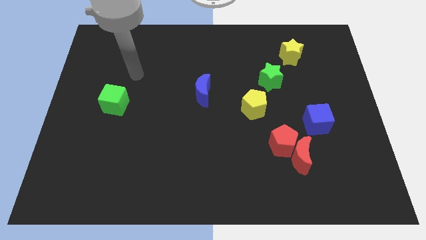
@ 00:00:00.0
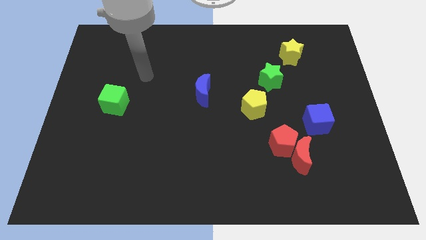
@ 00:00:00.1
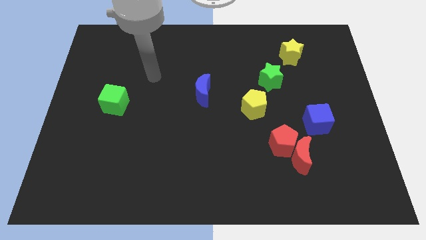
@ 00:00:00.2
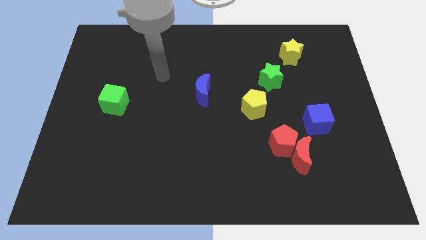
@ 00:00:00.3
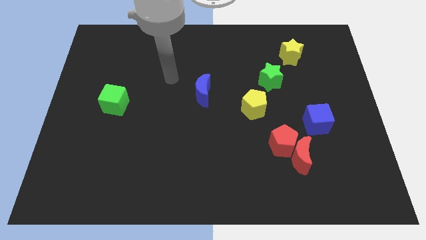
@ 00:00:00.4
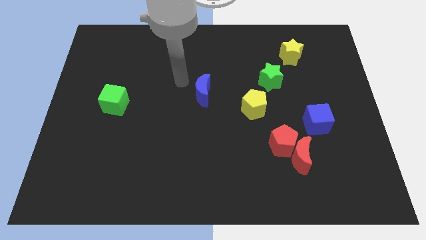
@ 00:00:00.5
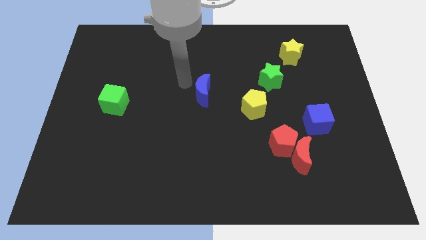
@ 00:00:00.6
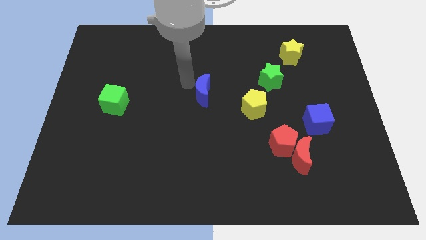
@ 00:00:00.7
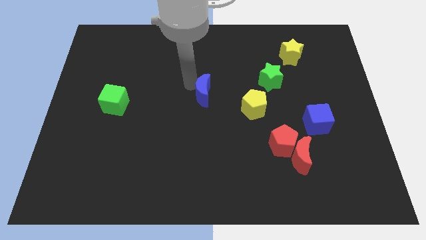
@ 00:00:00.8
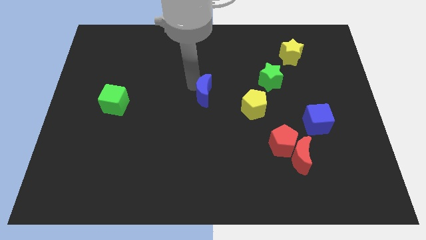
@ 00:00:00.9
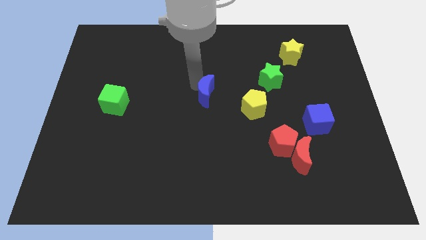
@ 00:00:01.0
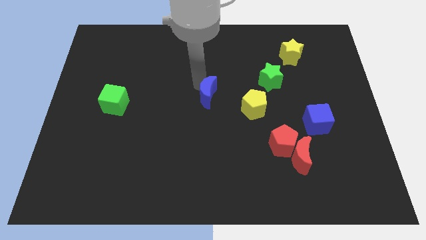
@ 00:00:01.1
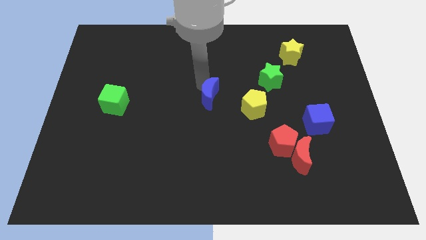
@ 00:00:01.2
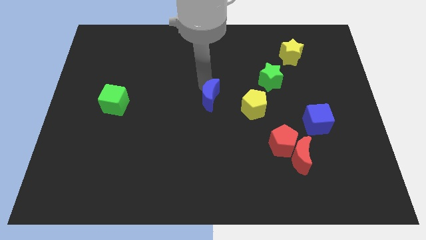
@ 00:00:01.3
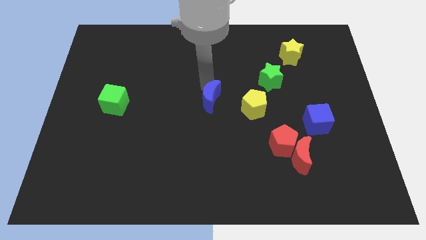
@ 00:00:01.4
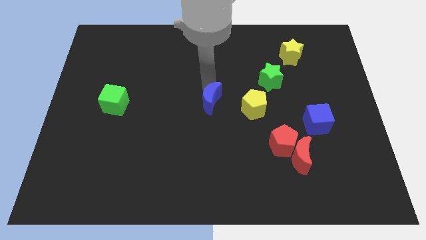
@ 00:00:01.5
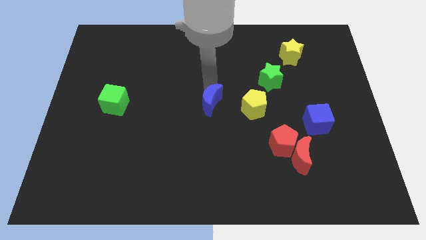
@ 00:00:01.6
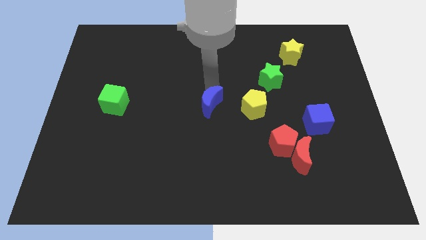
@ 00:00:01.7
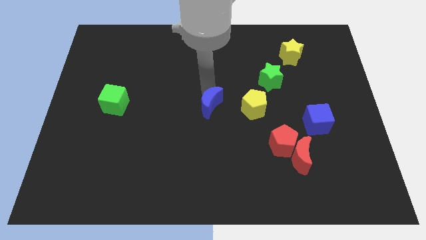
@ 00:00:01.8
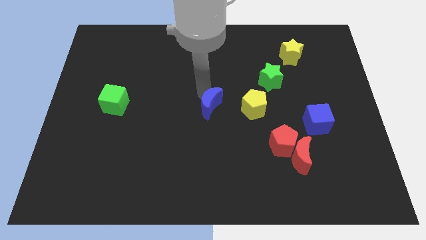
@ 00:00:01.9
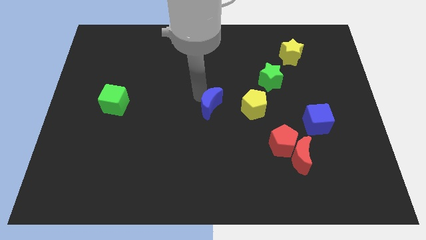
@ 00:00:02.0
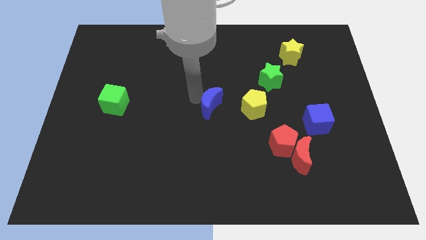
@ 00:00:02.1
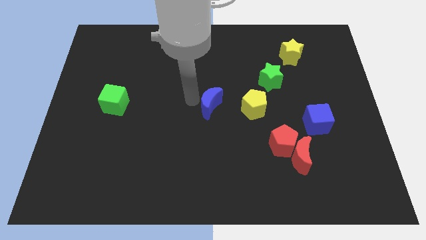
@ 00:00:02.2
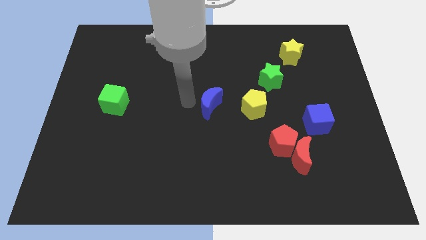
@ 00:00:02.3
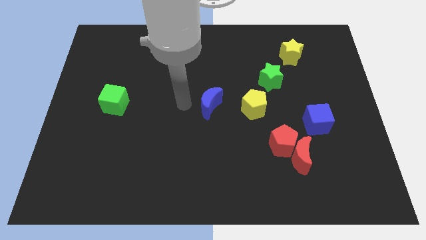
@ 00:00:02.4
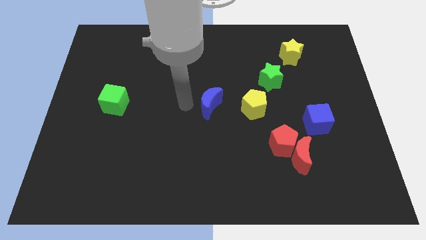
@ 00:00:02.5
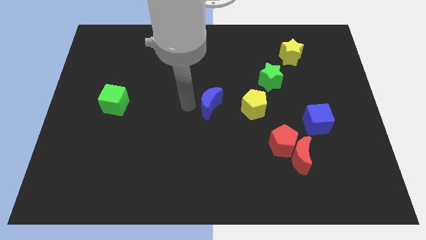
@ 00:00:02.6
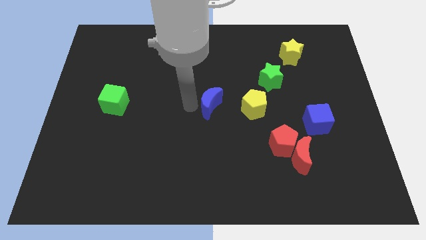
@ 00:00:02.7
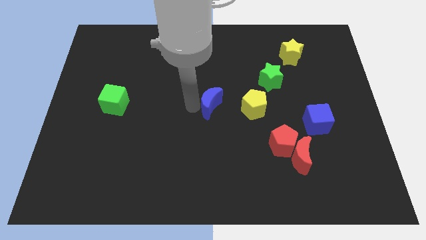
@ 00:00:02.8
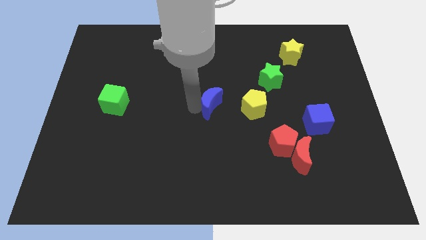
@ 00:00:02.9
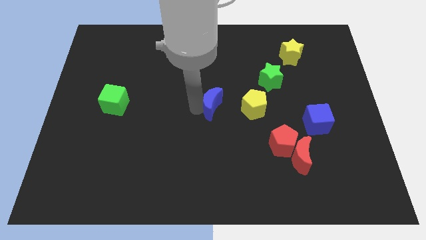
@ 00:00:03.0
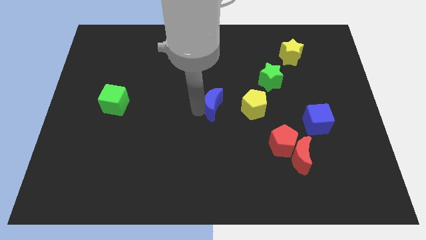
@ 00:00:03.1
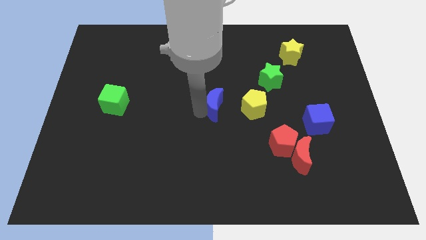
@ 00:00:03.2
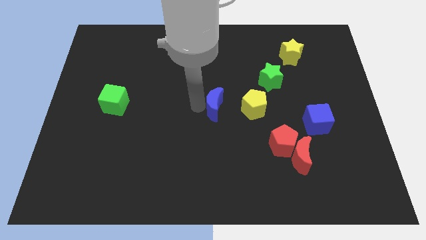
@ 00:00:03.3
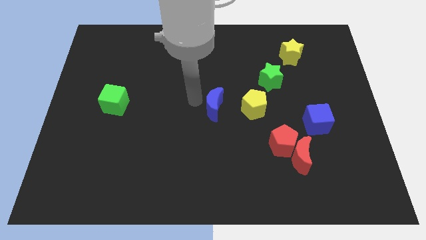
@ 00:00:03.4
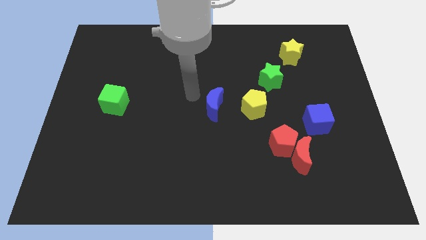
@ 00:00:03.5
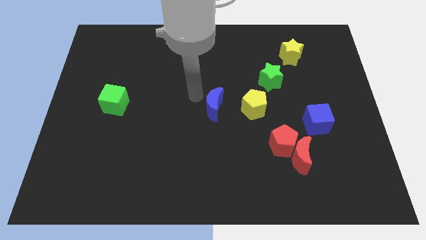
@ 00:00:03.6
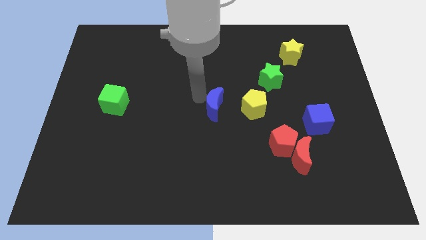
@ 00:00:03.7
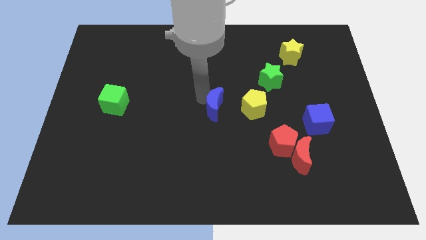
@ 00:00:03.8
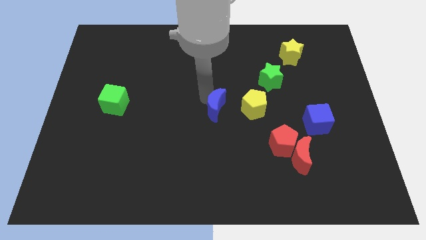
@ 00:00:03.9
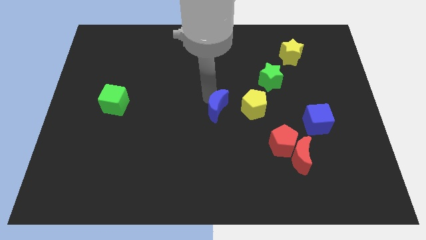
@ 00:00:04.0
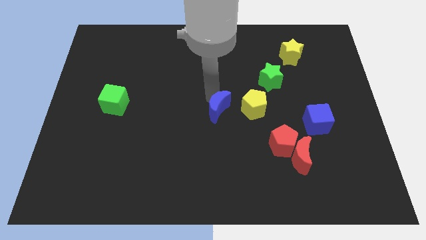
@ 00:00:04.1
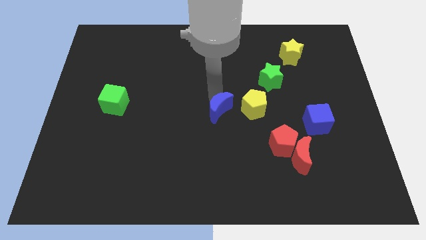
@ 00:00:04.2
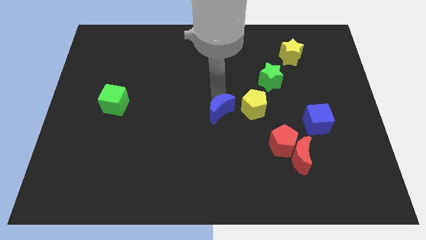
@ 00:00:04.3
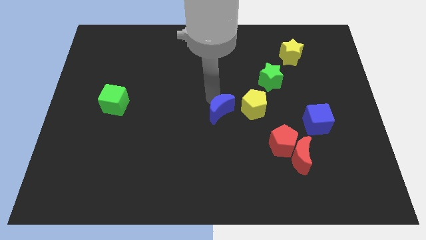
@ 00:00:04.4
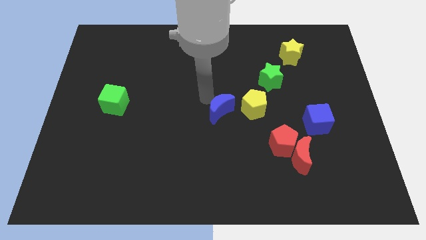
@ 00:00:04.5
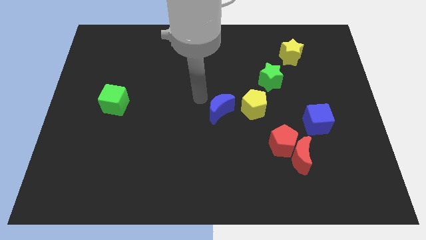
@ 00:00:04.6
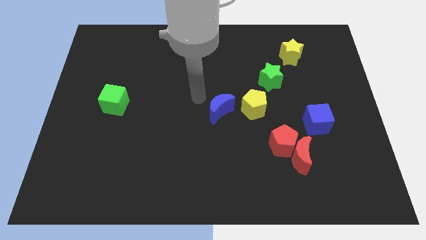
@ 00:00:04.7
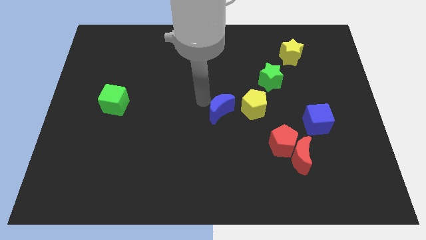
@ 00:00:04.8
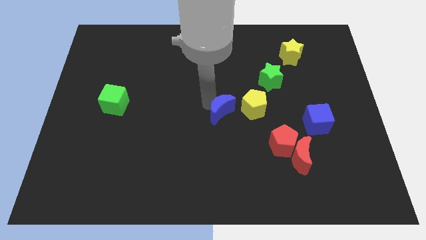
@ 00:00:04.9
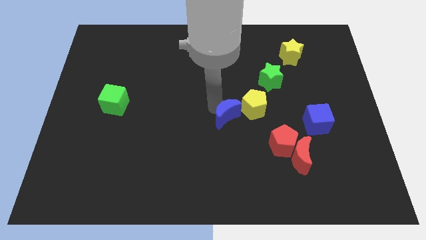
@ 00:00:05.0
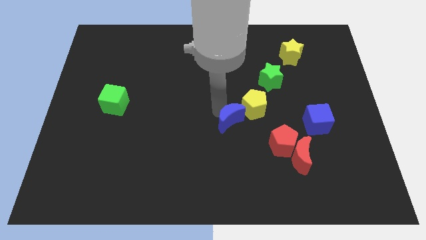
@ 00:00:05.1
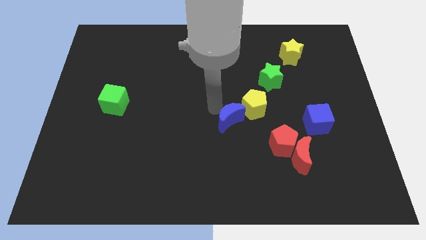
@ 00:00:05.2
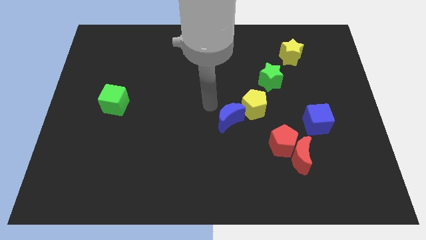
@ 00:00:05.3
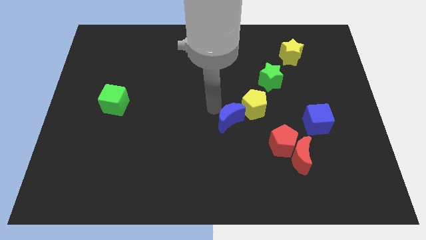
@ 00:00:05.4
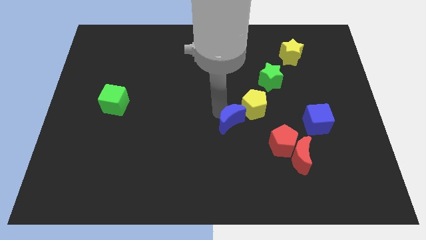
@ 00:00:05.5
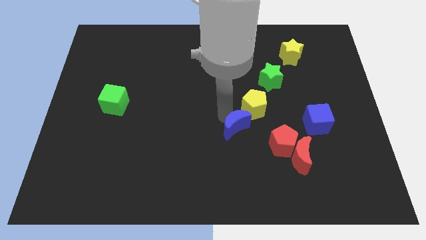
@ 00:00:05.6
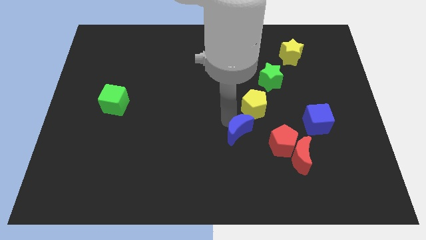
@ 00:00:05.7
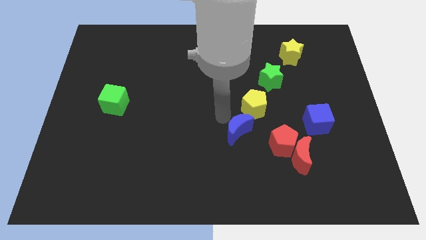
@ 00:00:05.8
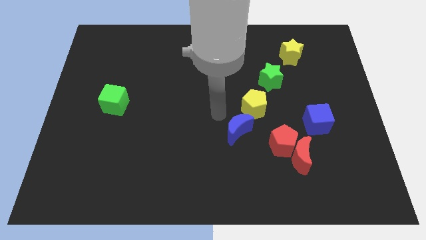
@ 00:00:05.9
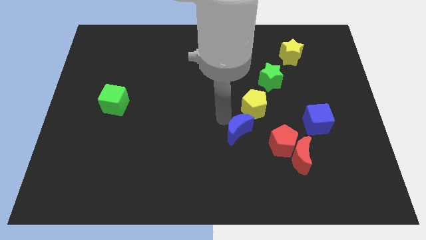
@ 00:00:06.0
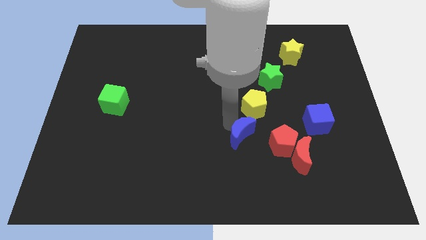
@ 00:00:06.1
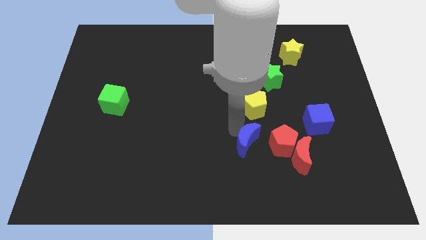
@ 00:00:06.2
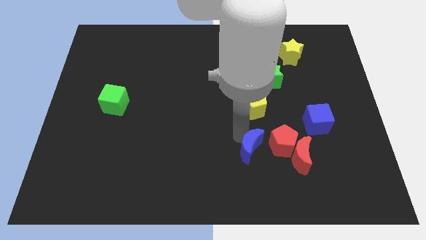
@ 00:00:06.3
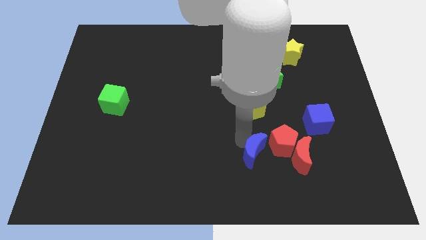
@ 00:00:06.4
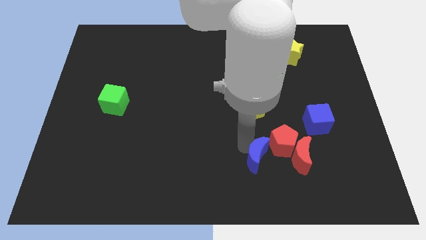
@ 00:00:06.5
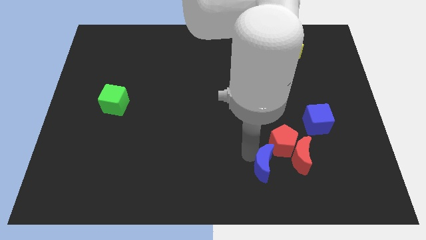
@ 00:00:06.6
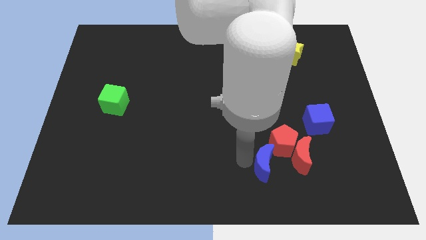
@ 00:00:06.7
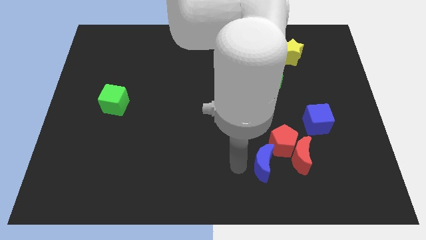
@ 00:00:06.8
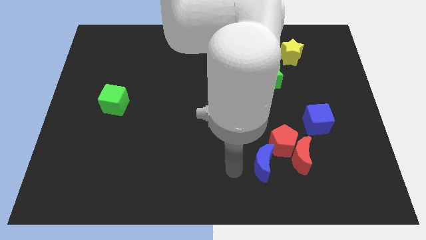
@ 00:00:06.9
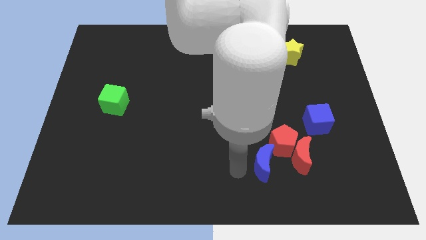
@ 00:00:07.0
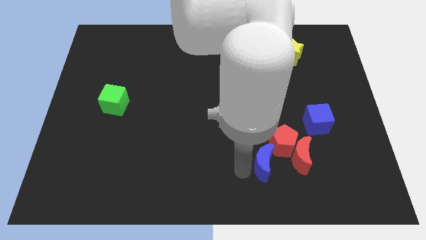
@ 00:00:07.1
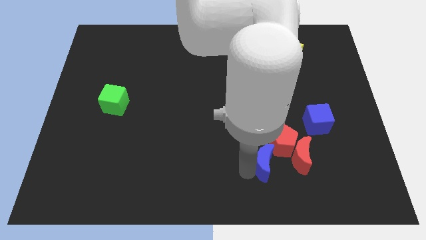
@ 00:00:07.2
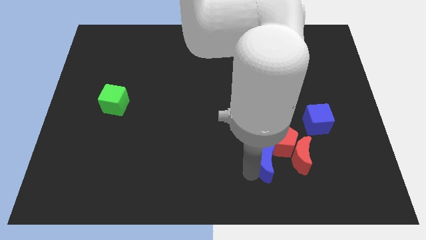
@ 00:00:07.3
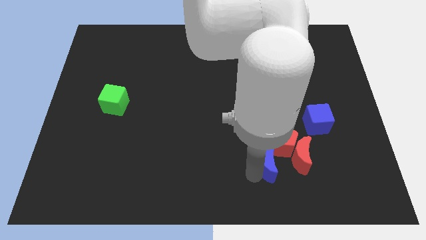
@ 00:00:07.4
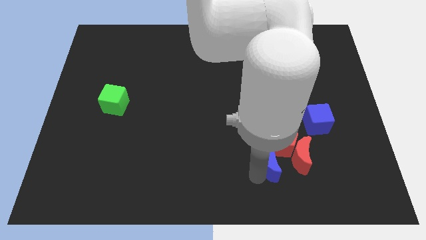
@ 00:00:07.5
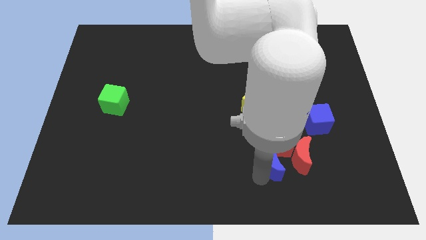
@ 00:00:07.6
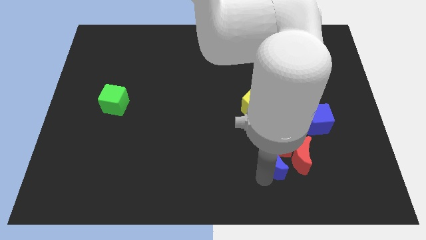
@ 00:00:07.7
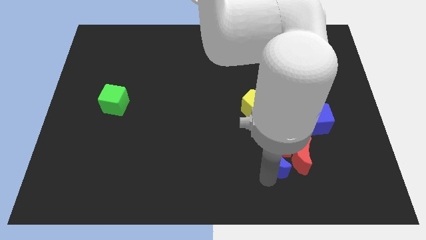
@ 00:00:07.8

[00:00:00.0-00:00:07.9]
slide the blue moon to the red moon
